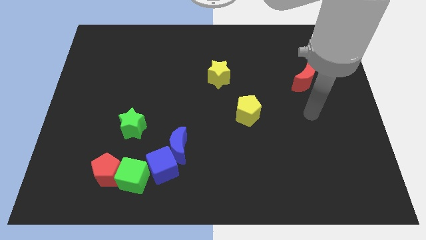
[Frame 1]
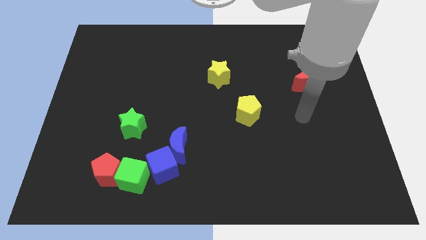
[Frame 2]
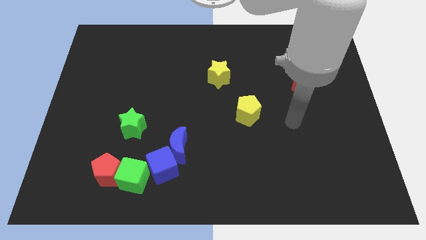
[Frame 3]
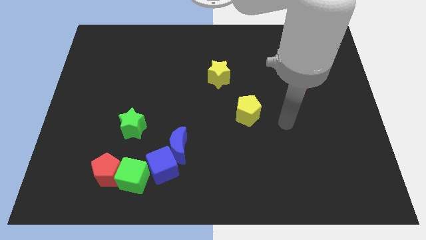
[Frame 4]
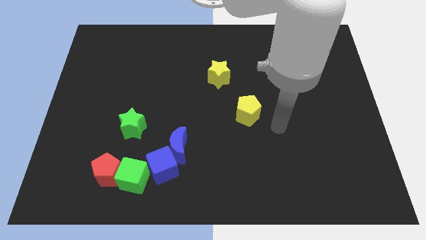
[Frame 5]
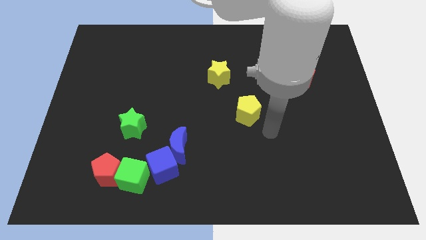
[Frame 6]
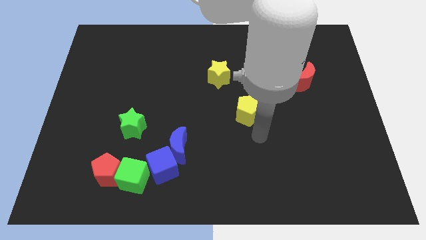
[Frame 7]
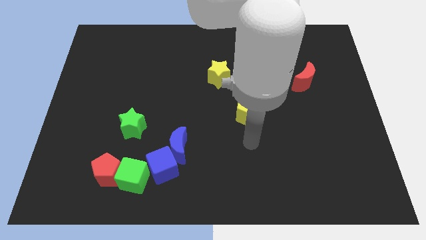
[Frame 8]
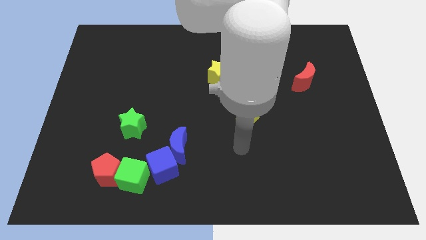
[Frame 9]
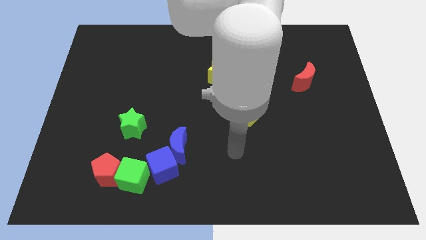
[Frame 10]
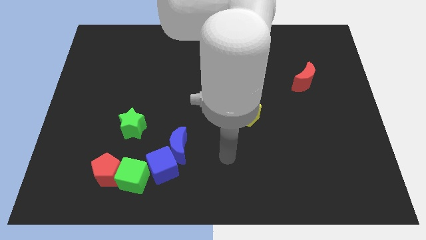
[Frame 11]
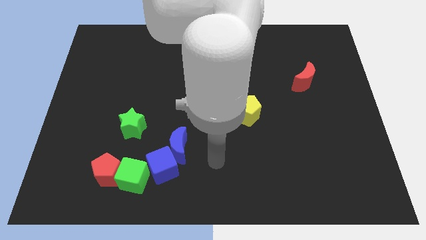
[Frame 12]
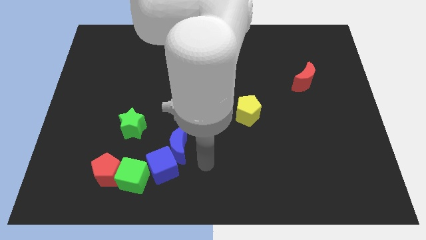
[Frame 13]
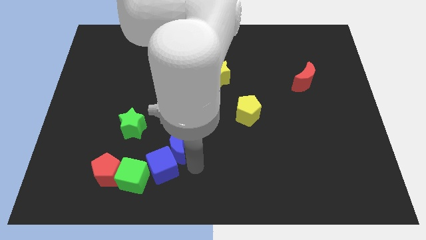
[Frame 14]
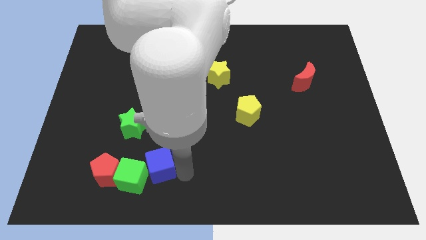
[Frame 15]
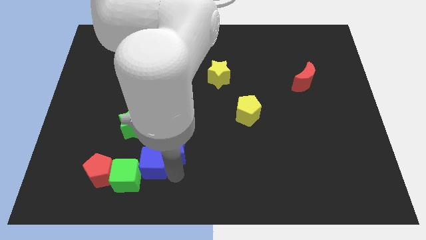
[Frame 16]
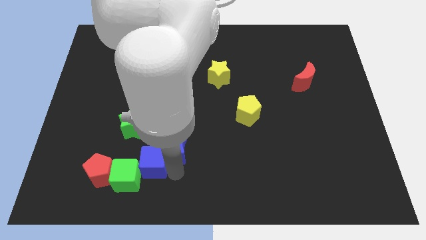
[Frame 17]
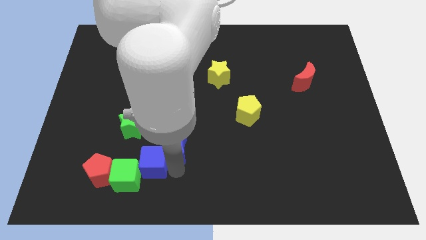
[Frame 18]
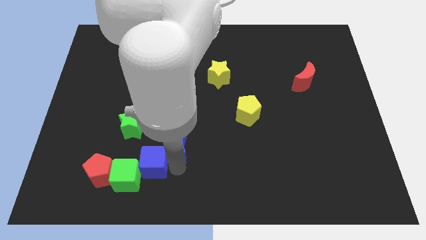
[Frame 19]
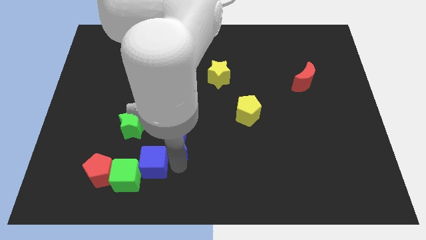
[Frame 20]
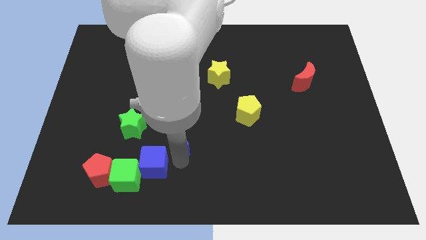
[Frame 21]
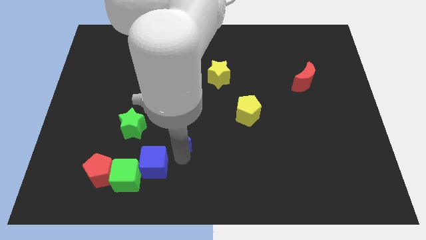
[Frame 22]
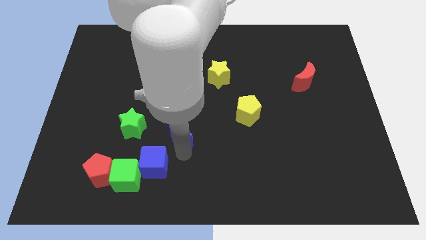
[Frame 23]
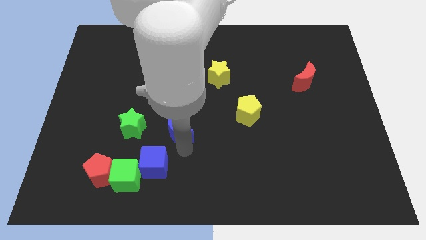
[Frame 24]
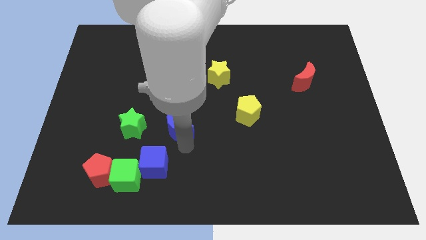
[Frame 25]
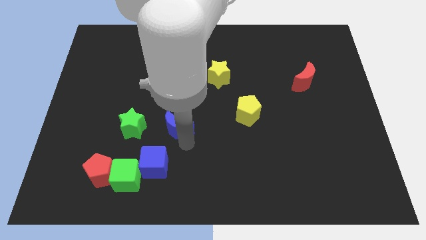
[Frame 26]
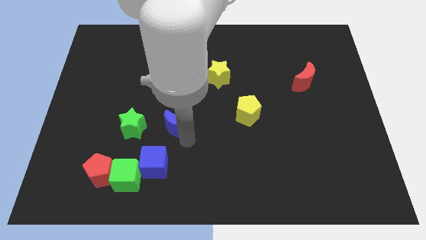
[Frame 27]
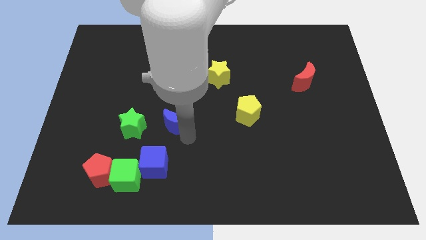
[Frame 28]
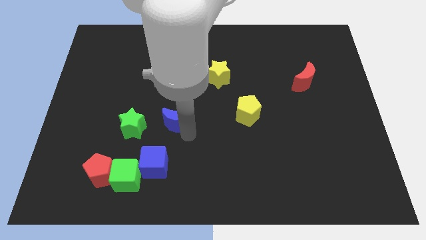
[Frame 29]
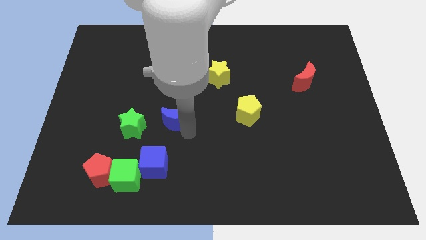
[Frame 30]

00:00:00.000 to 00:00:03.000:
push the blue moon slightly up

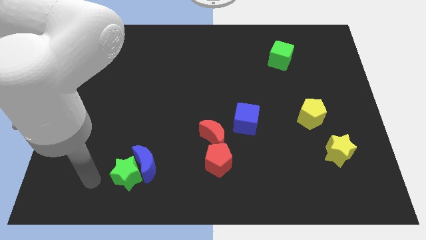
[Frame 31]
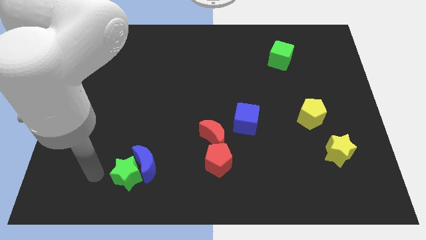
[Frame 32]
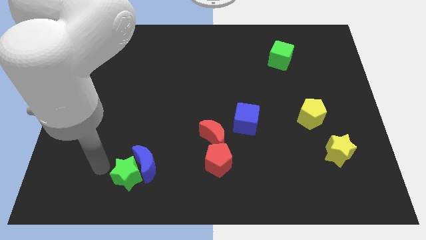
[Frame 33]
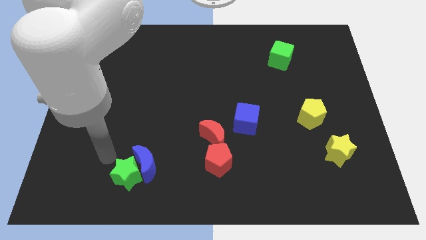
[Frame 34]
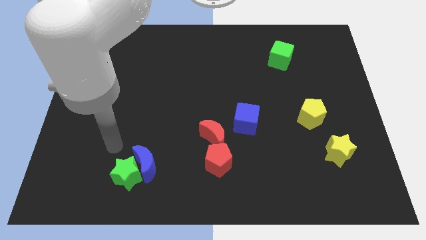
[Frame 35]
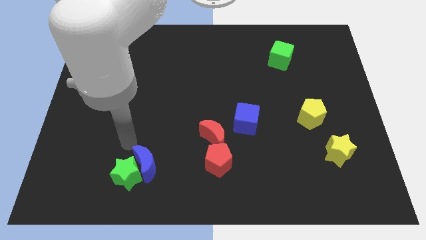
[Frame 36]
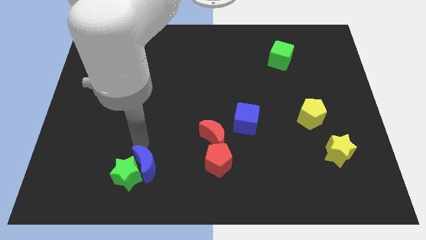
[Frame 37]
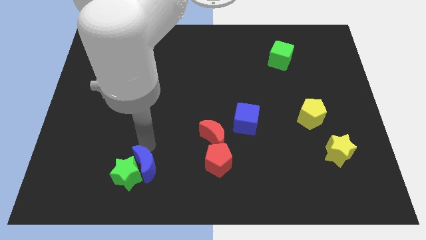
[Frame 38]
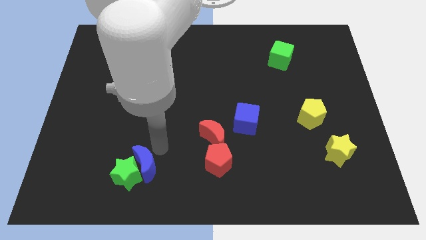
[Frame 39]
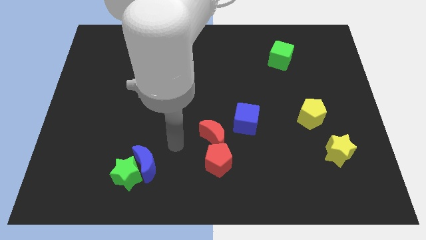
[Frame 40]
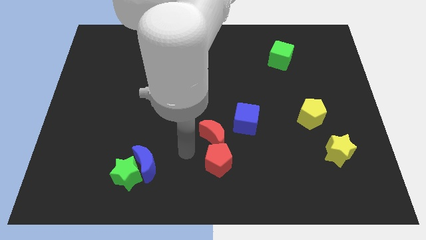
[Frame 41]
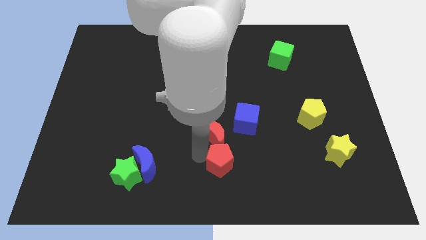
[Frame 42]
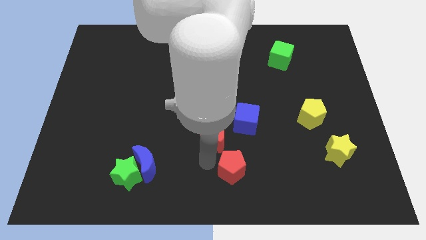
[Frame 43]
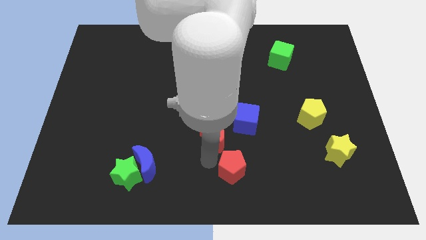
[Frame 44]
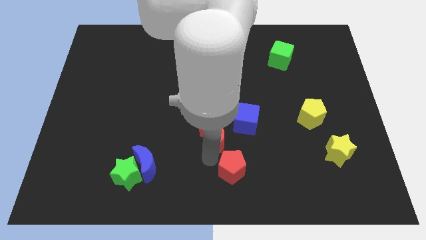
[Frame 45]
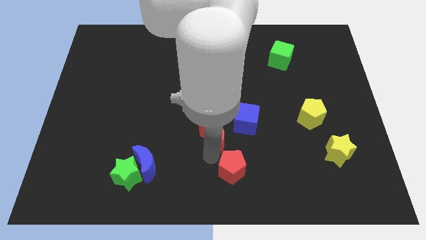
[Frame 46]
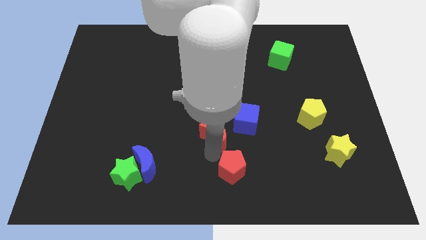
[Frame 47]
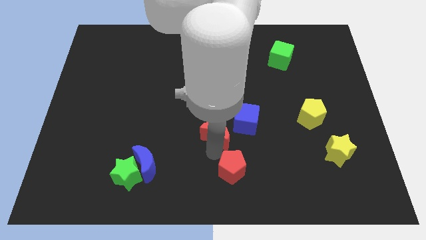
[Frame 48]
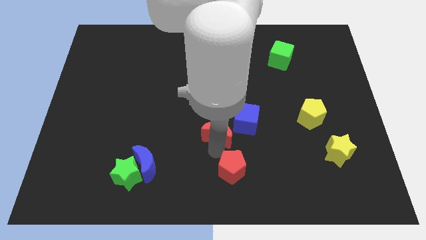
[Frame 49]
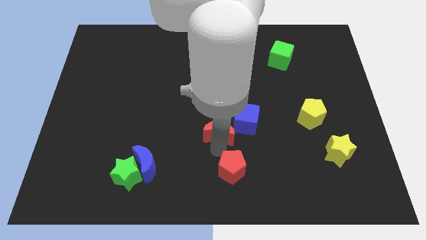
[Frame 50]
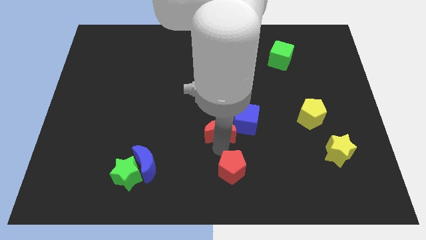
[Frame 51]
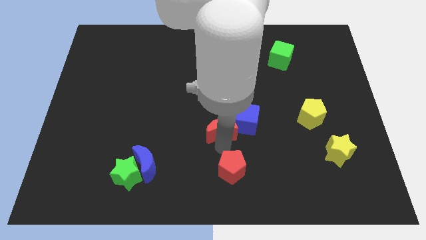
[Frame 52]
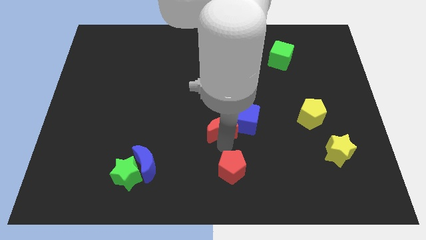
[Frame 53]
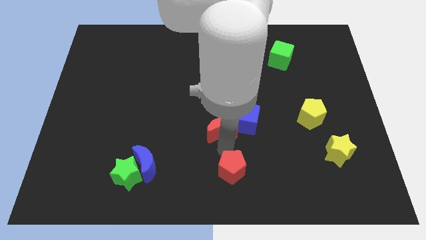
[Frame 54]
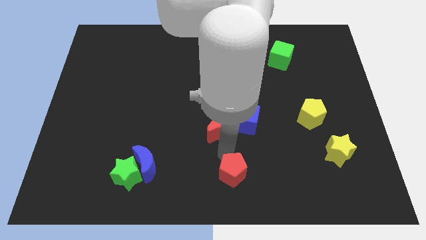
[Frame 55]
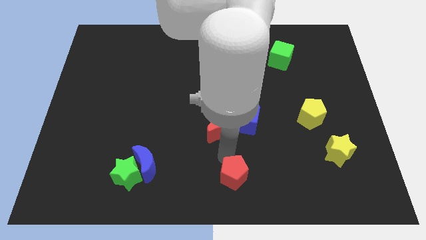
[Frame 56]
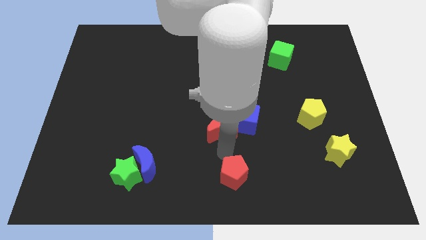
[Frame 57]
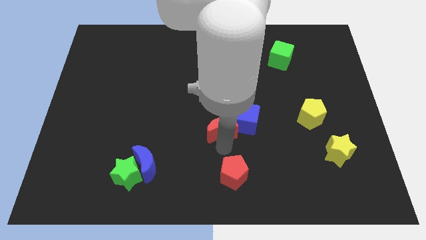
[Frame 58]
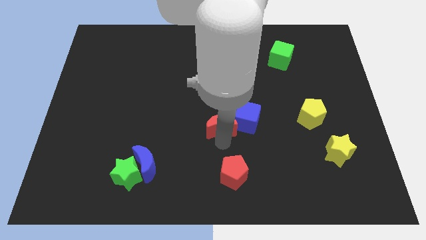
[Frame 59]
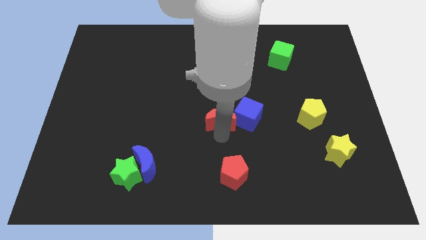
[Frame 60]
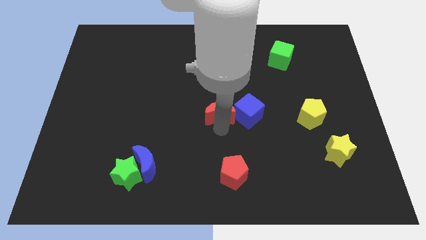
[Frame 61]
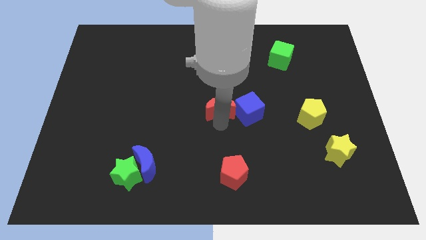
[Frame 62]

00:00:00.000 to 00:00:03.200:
slightly push the red moon up

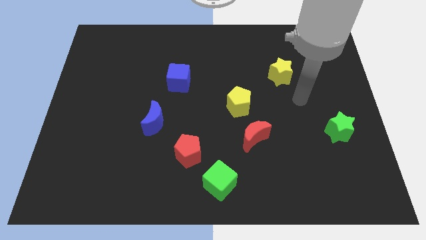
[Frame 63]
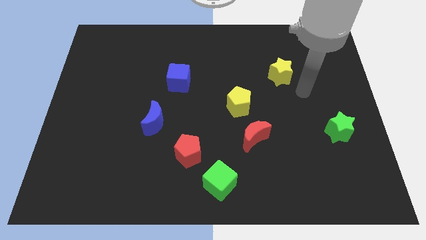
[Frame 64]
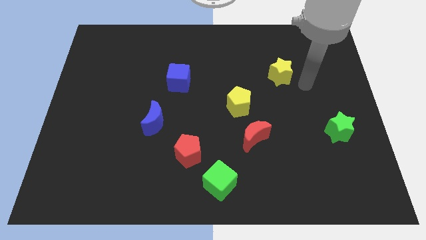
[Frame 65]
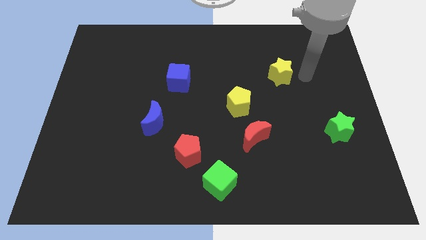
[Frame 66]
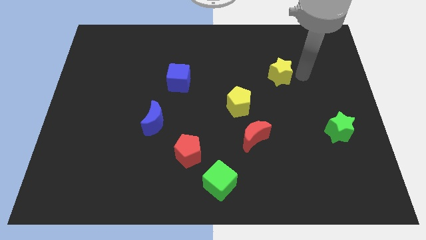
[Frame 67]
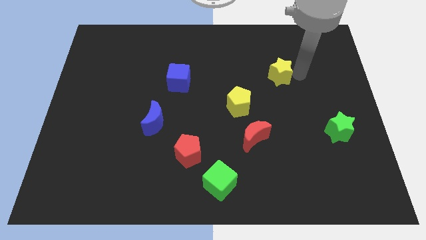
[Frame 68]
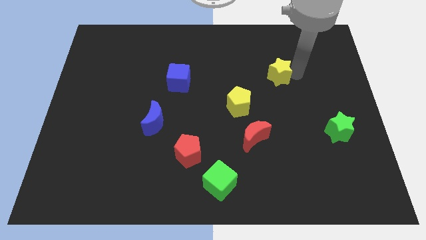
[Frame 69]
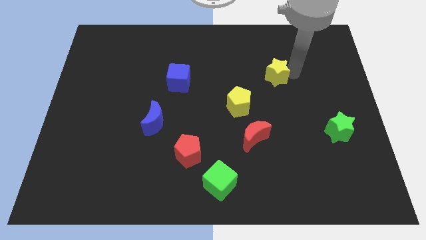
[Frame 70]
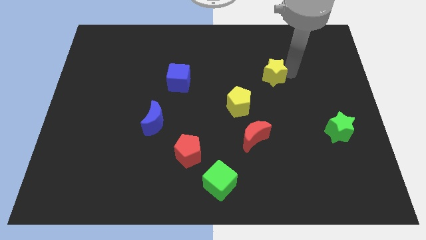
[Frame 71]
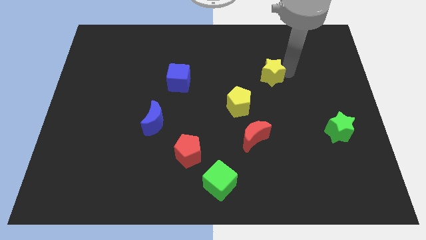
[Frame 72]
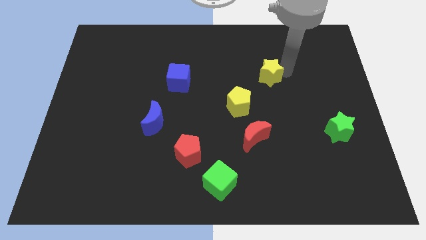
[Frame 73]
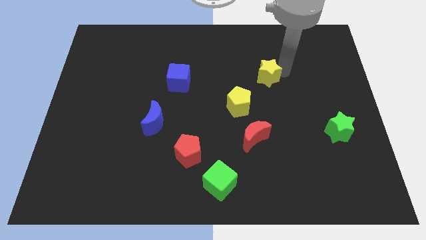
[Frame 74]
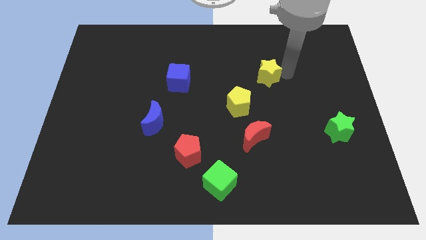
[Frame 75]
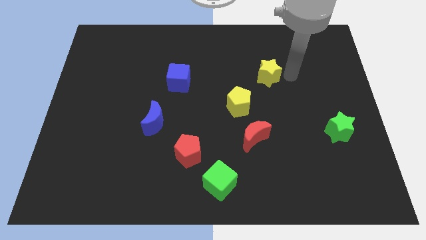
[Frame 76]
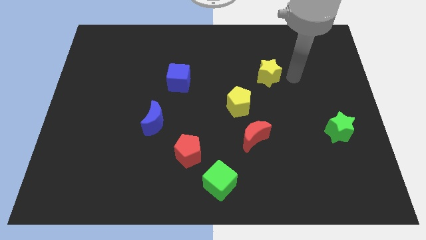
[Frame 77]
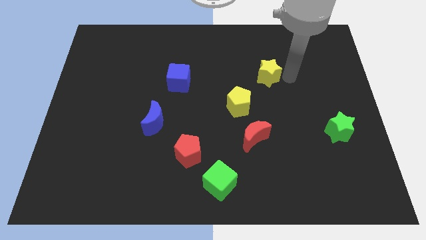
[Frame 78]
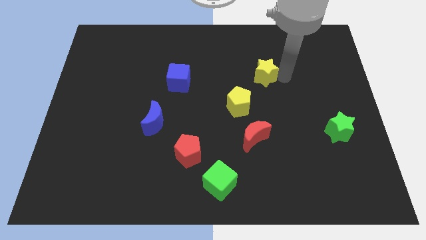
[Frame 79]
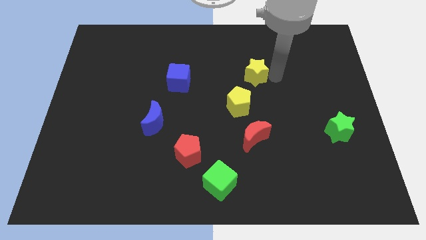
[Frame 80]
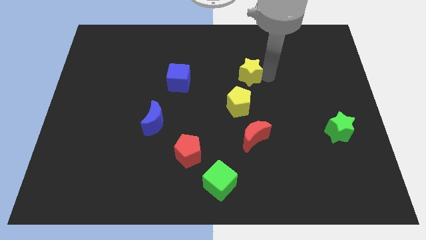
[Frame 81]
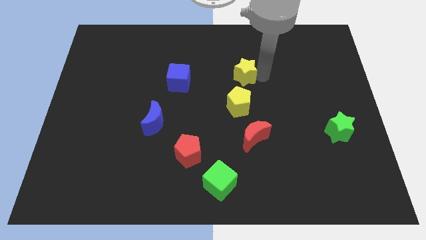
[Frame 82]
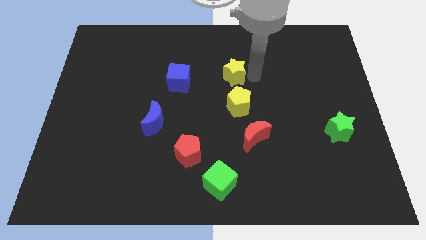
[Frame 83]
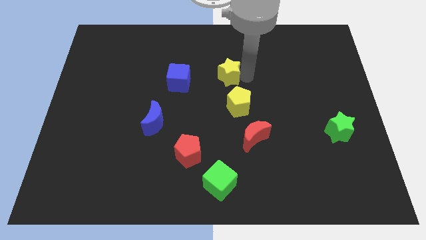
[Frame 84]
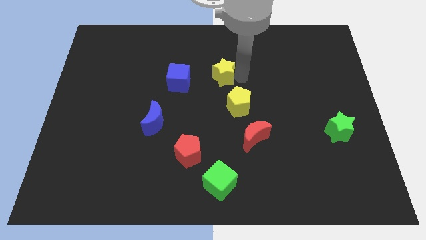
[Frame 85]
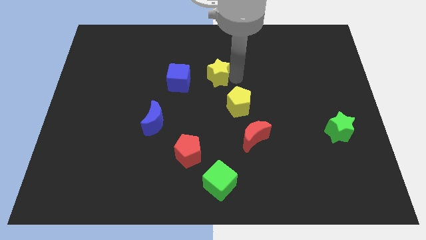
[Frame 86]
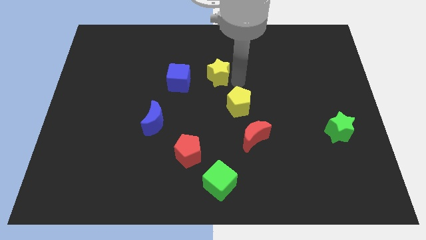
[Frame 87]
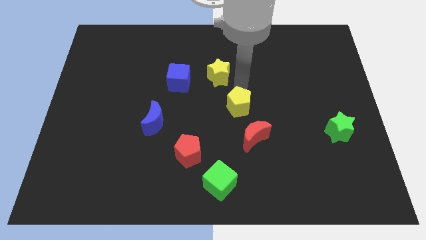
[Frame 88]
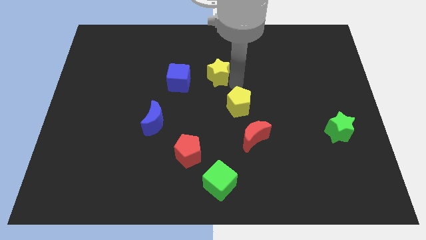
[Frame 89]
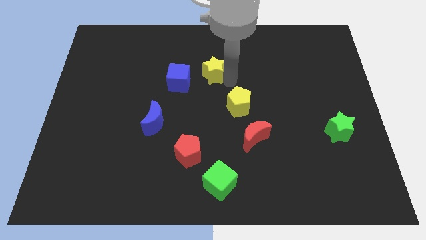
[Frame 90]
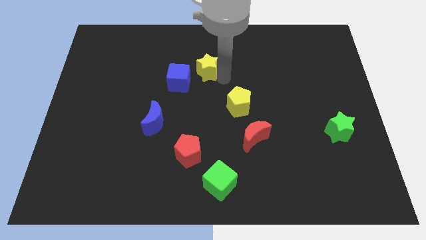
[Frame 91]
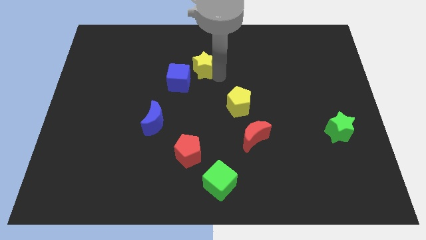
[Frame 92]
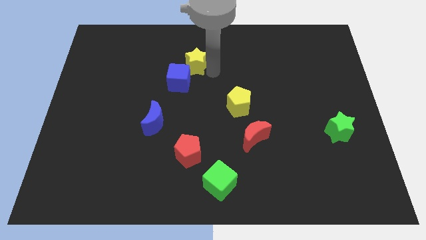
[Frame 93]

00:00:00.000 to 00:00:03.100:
slide the yellow star to the left
